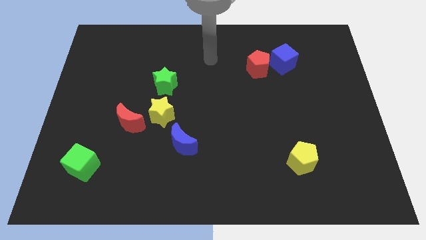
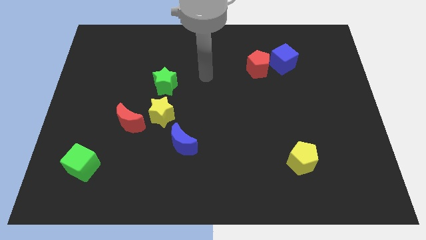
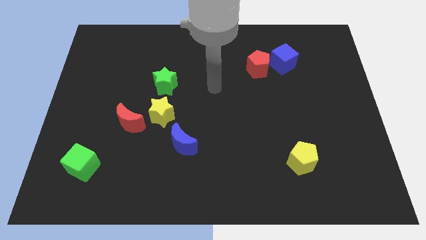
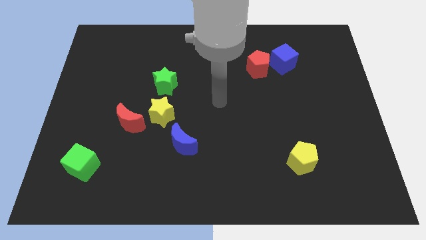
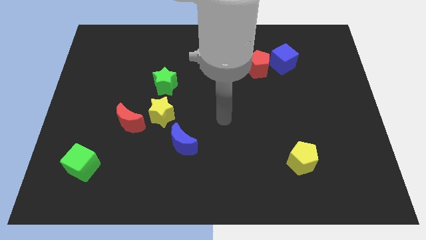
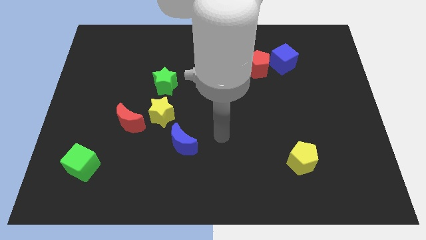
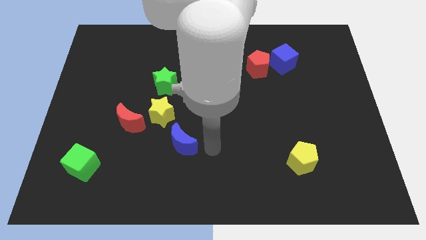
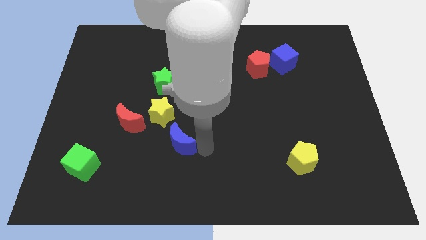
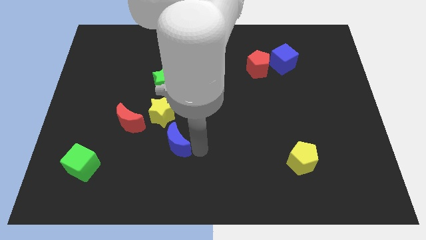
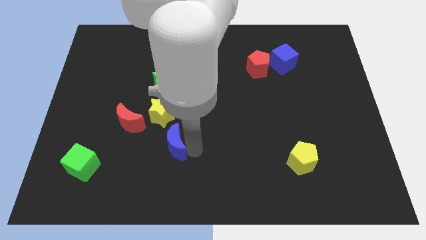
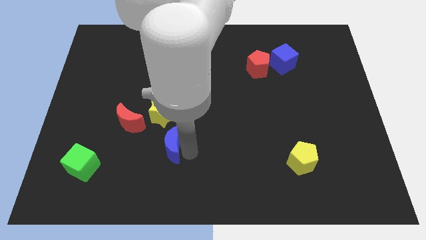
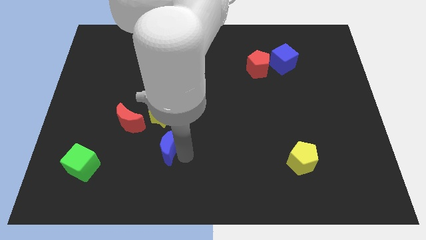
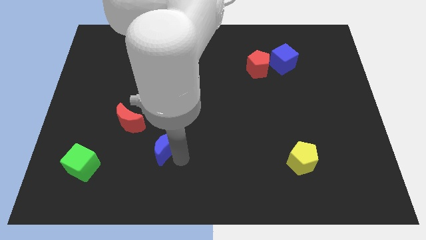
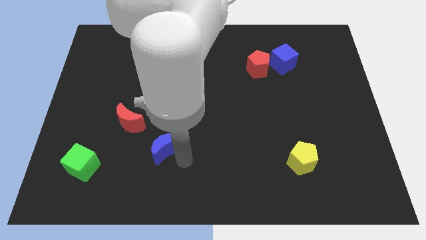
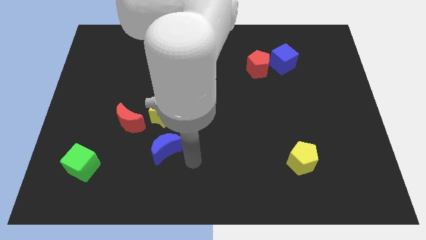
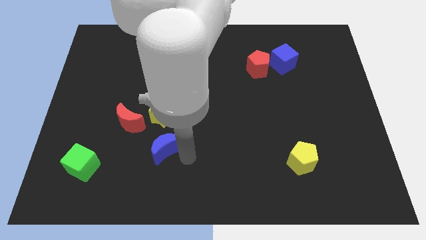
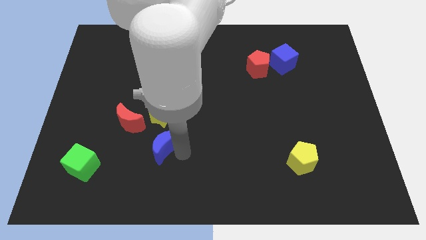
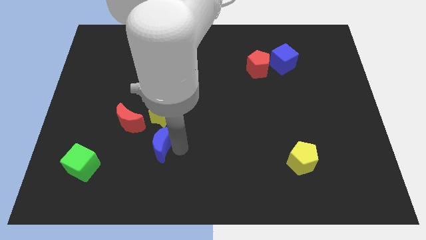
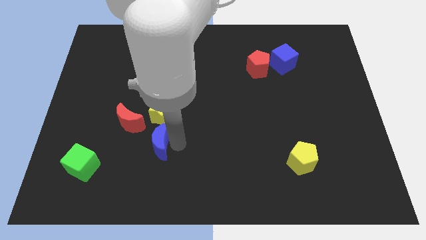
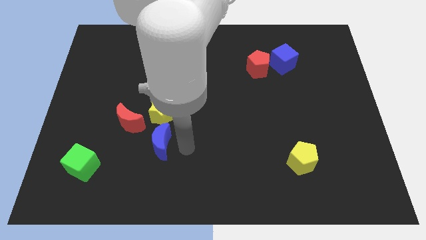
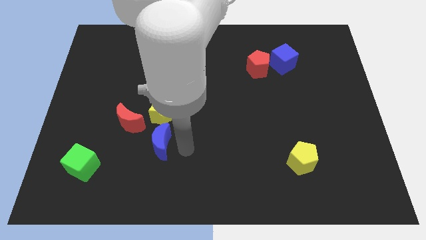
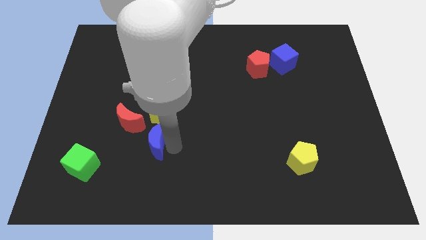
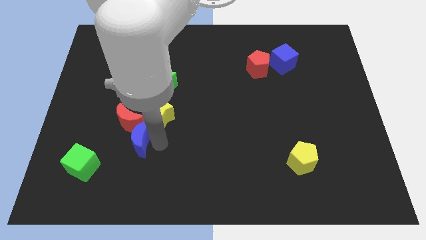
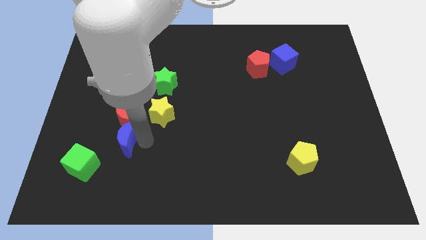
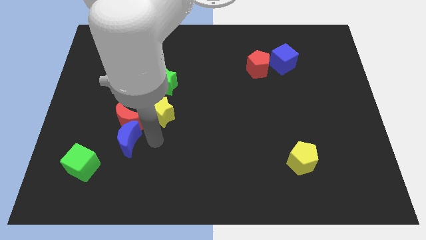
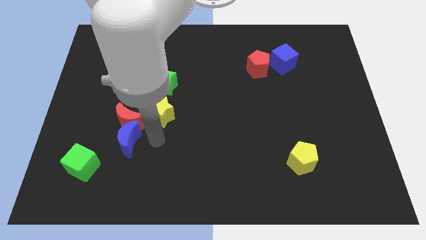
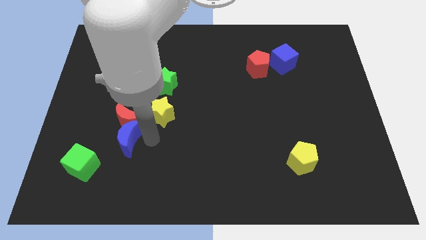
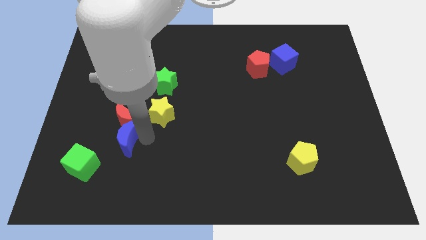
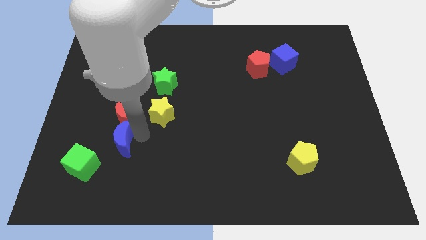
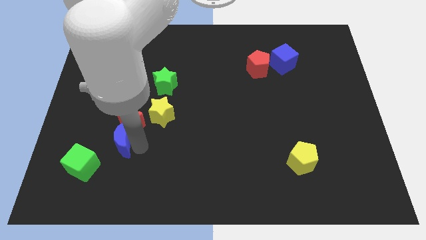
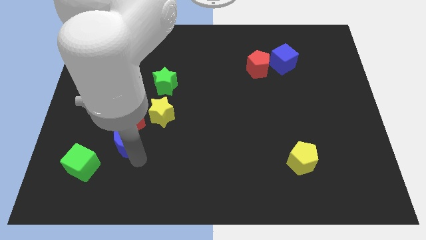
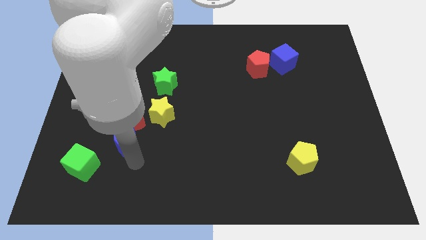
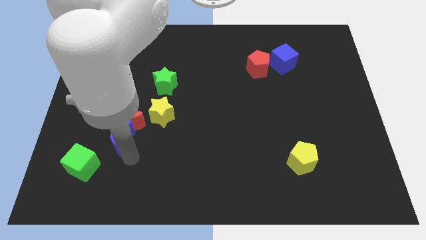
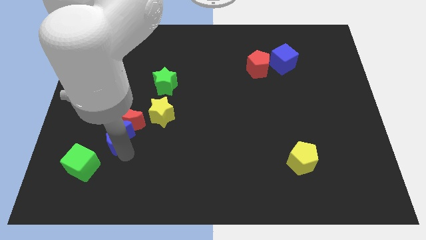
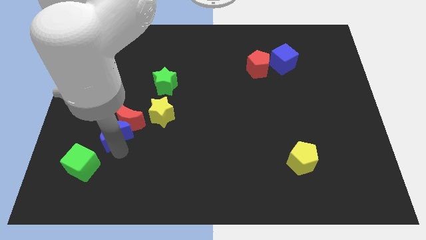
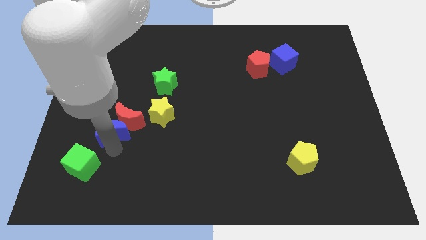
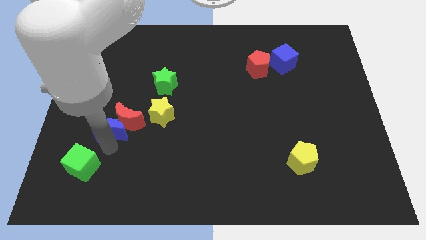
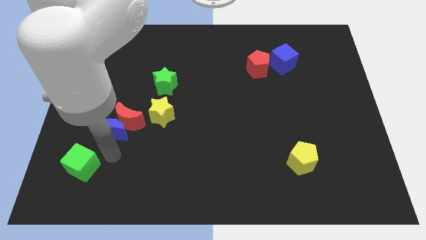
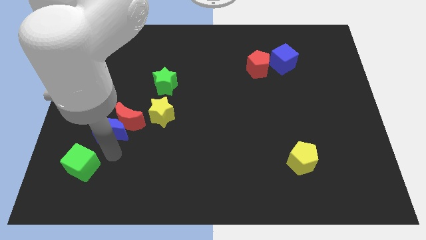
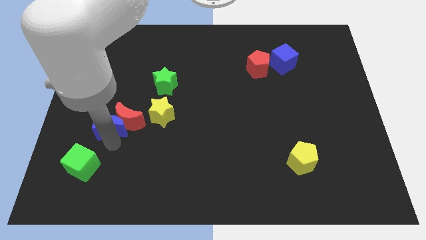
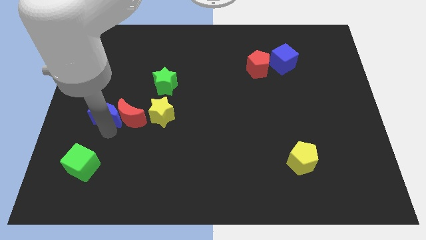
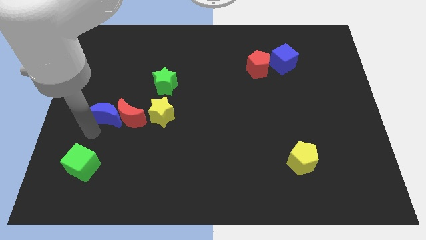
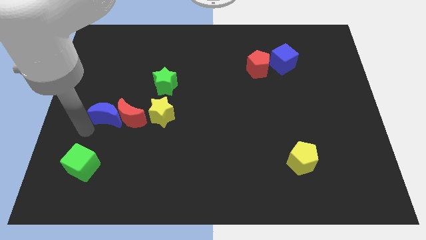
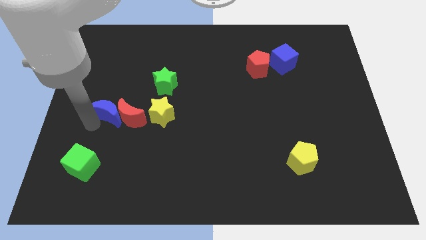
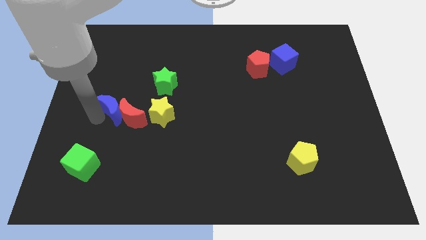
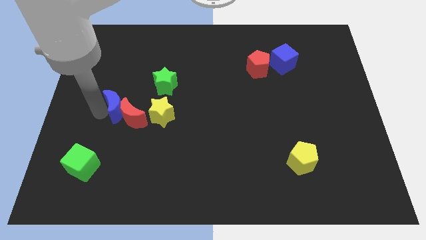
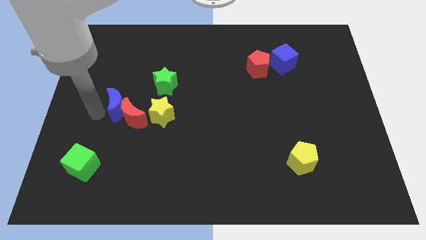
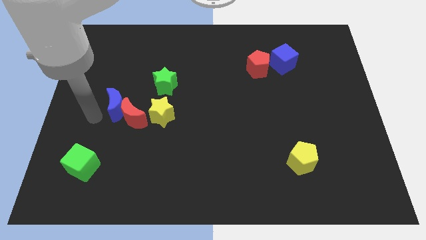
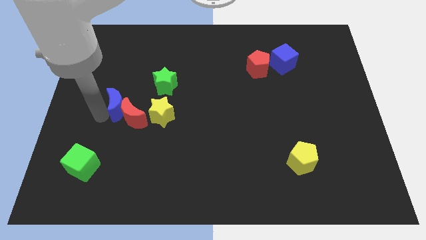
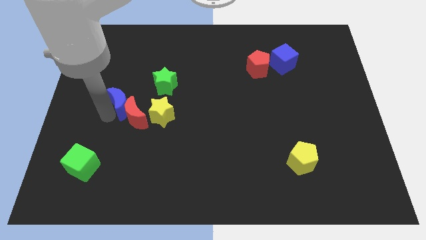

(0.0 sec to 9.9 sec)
slide the blue moon to the top left of the yellow star

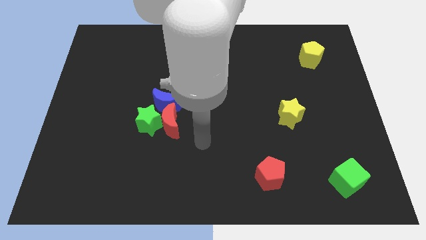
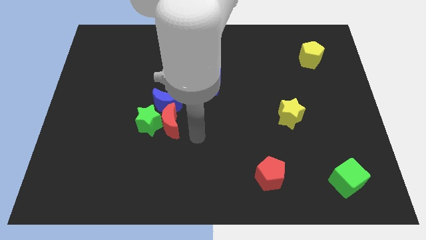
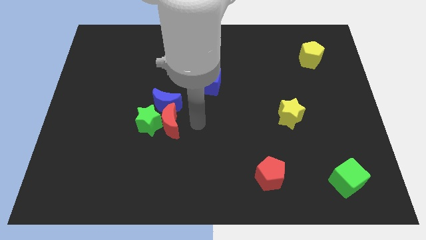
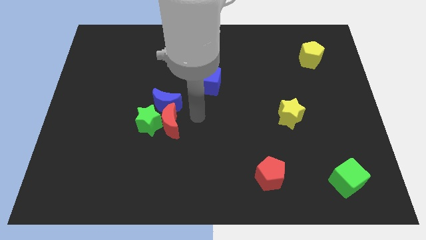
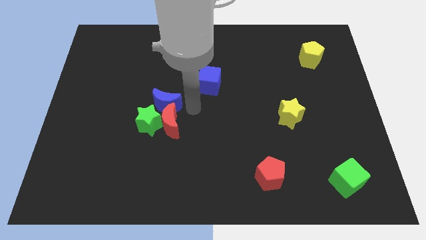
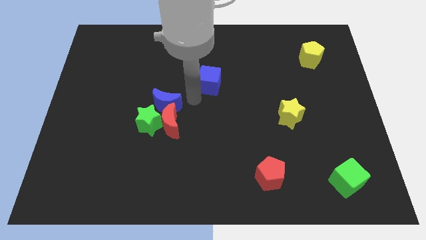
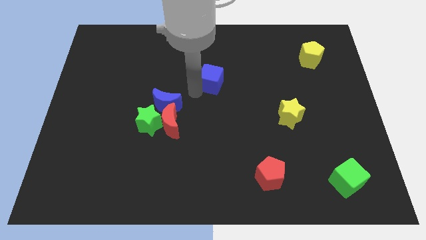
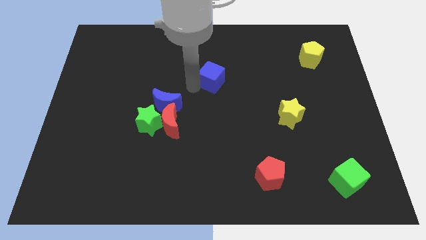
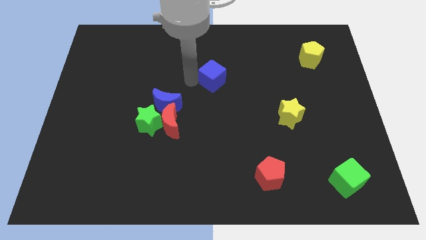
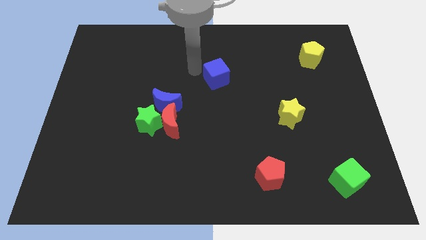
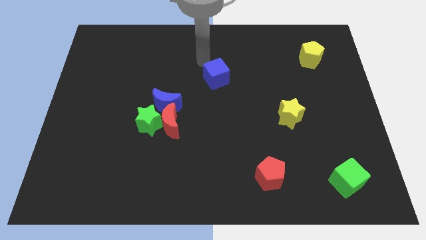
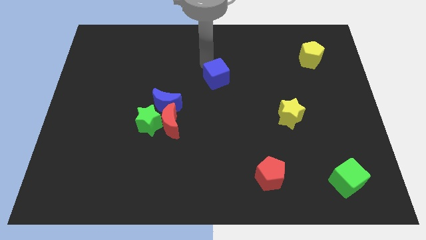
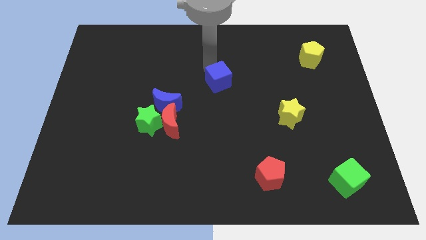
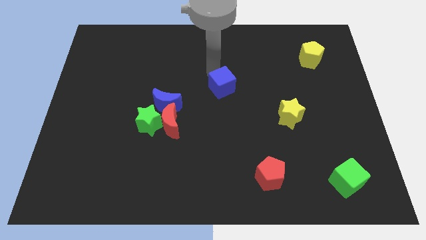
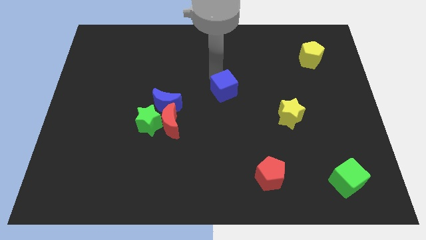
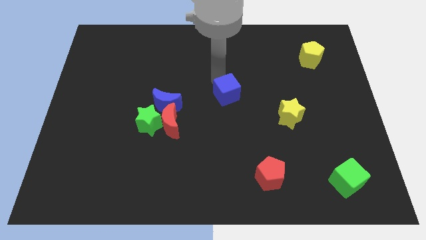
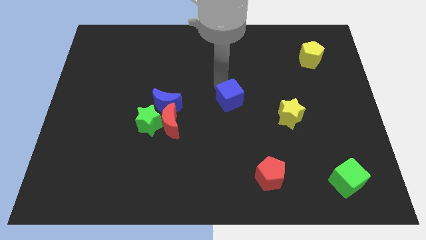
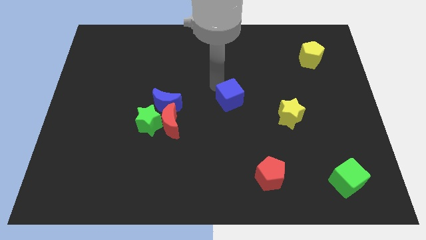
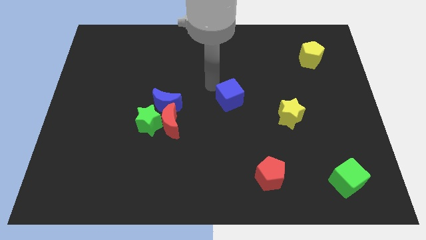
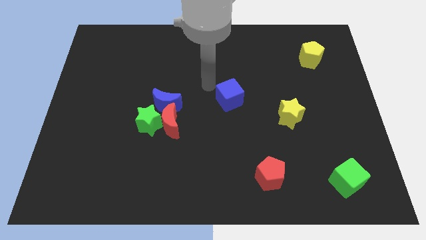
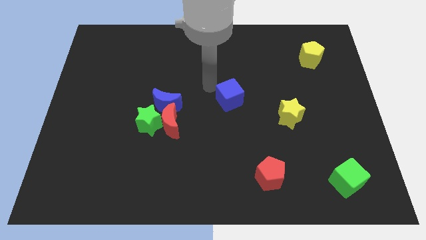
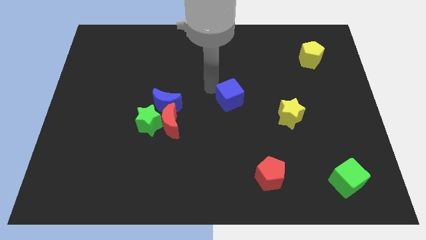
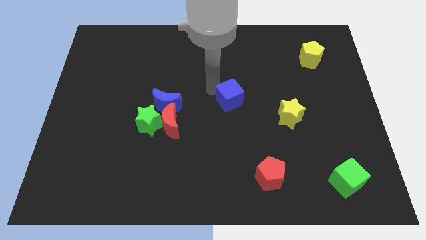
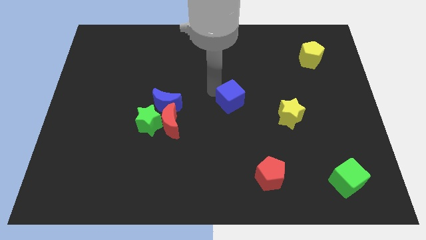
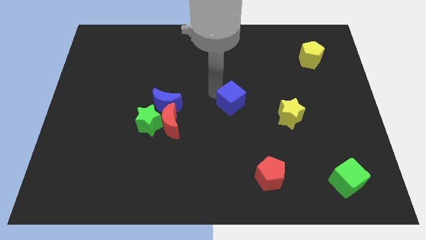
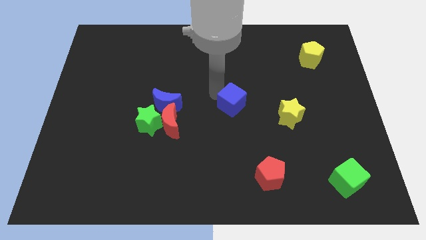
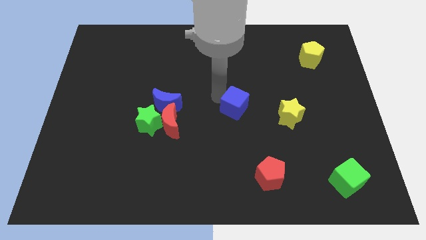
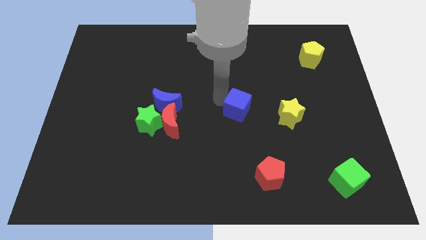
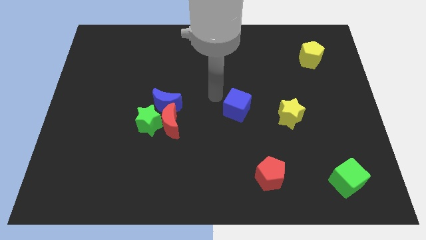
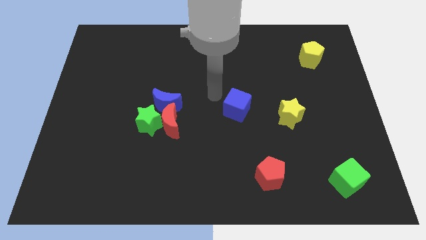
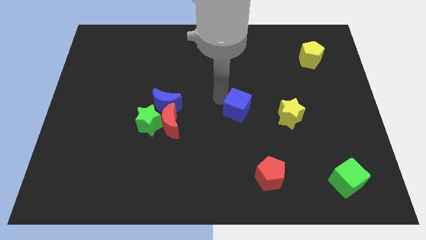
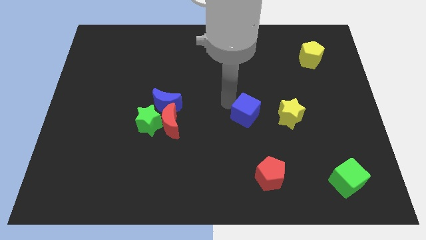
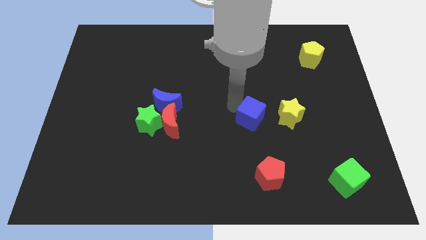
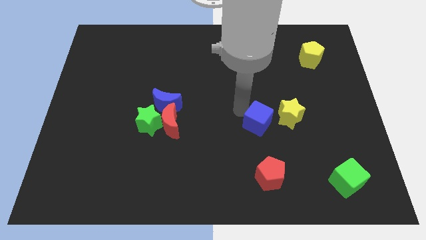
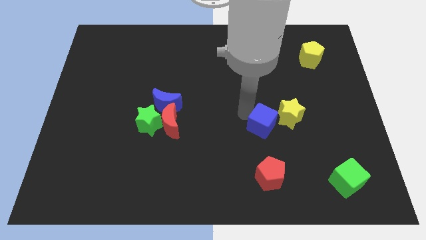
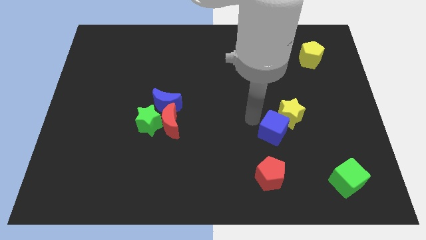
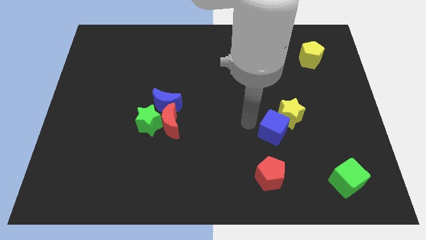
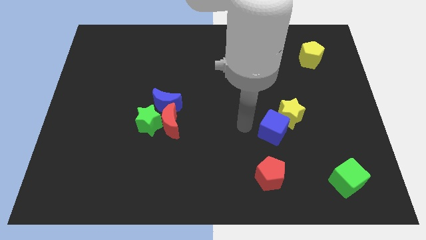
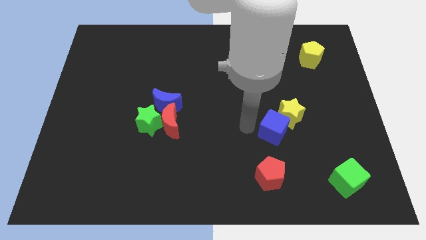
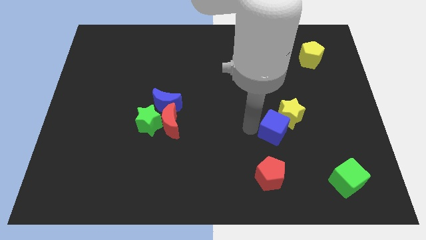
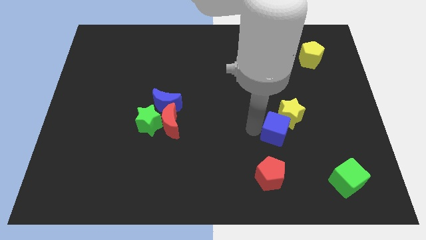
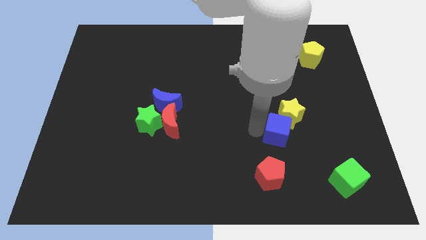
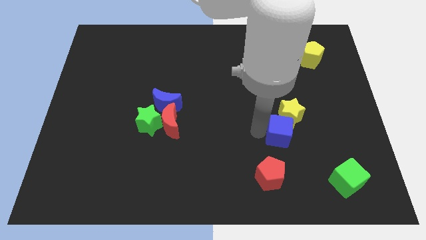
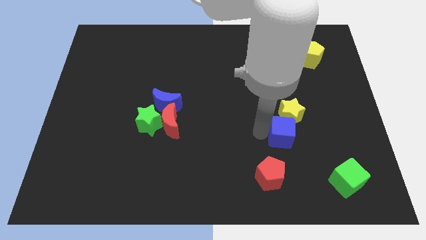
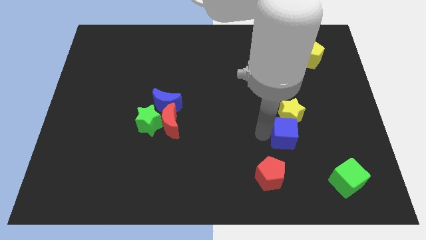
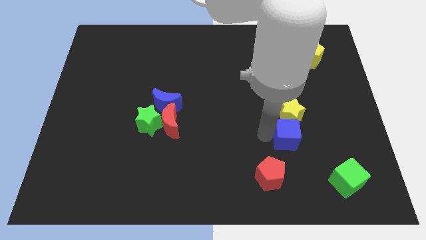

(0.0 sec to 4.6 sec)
move the blue cube to the bottom right of the yellow star
